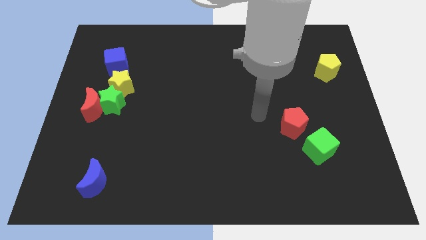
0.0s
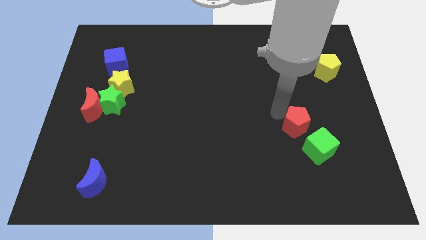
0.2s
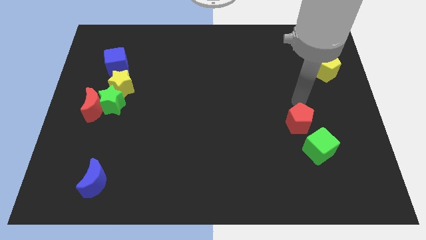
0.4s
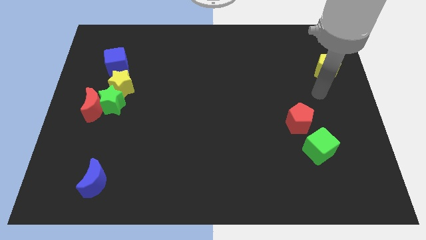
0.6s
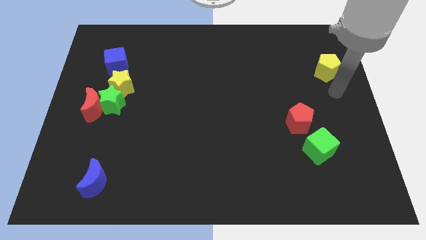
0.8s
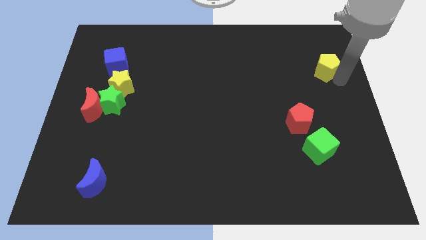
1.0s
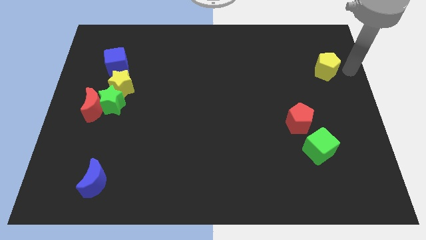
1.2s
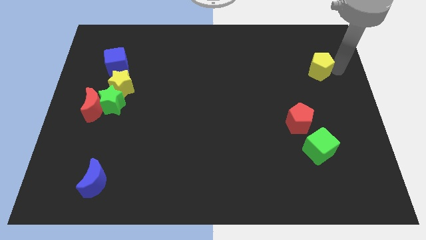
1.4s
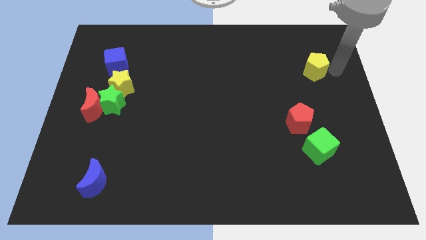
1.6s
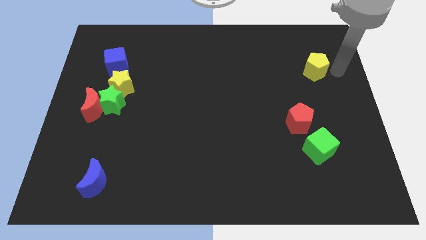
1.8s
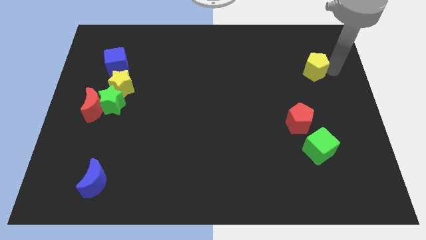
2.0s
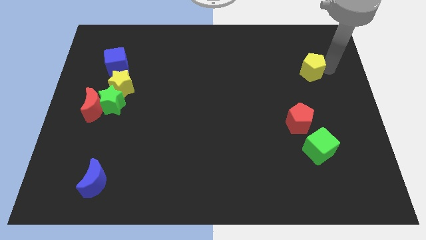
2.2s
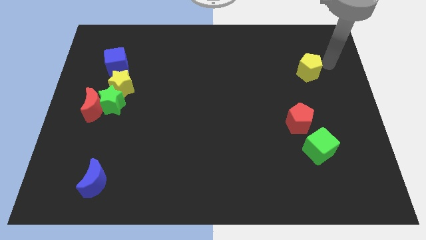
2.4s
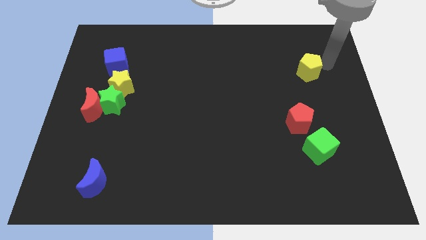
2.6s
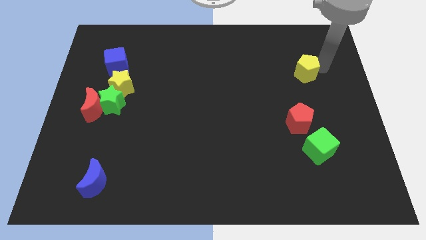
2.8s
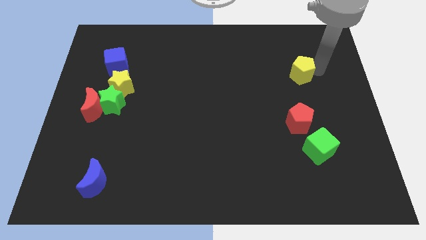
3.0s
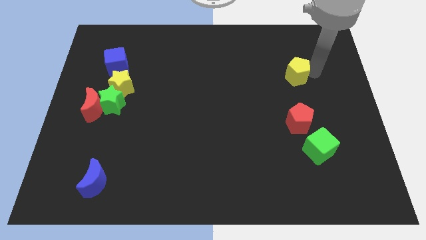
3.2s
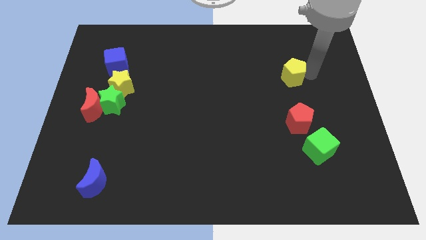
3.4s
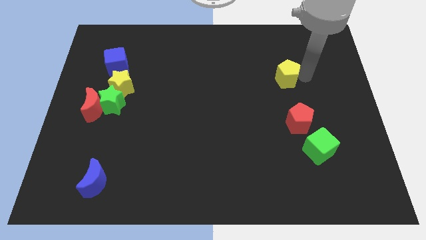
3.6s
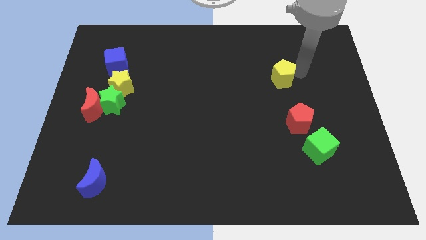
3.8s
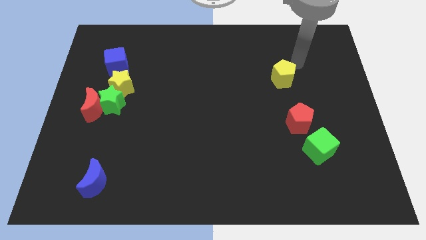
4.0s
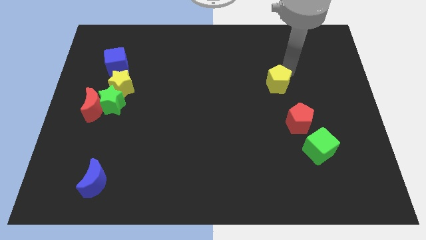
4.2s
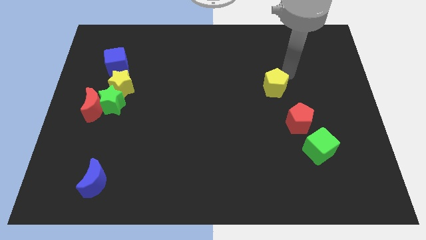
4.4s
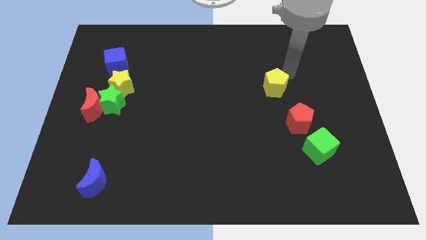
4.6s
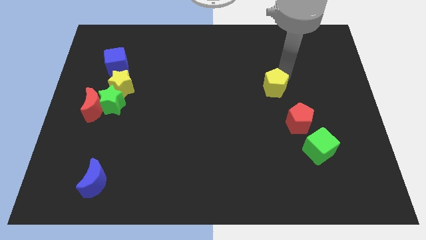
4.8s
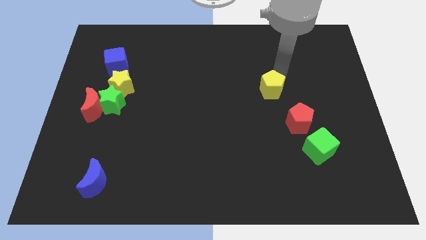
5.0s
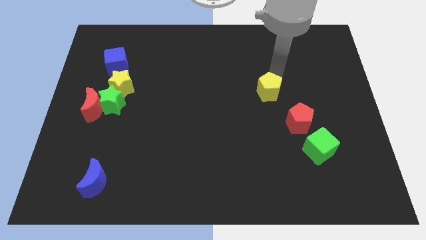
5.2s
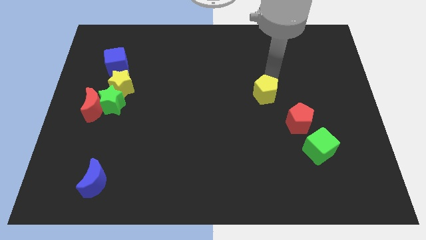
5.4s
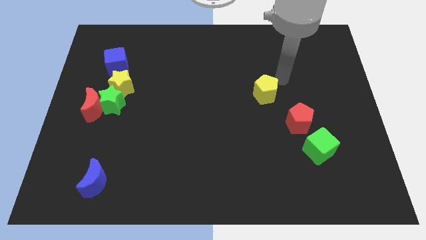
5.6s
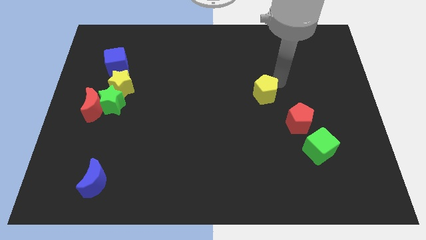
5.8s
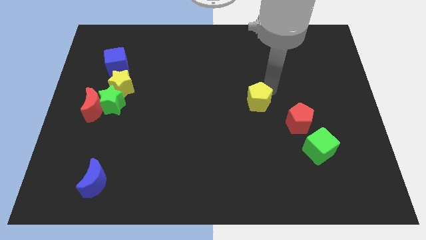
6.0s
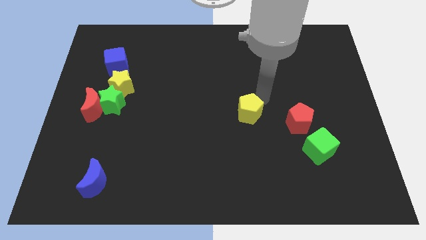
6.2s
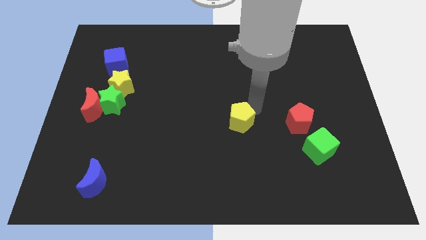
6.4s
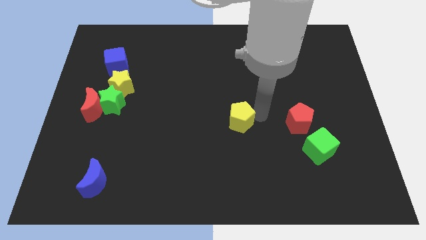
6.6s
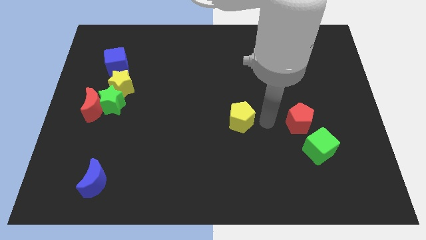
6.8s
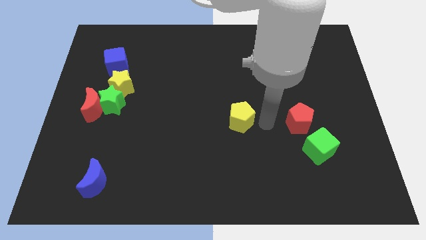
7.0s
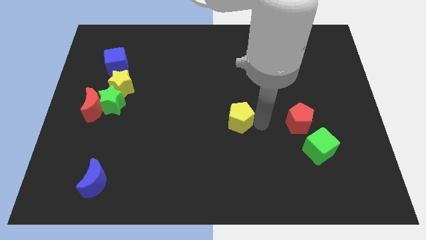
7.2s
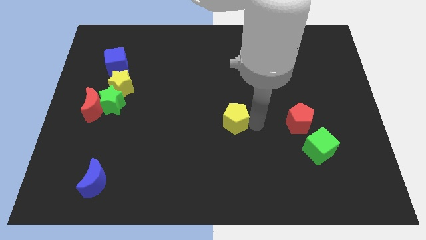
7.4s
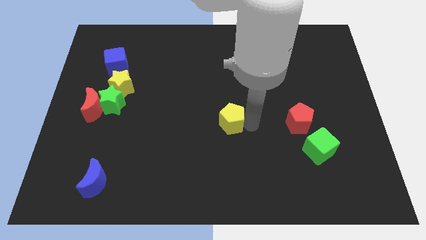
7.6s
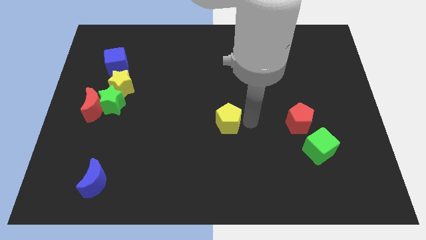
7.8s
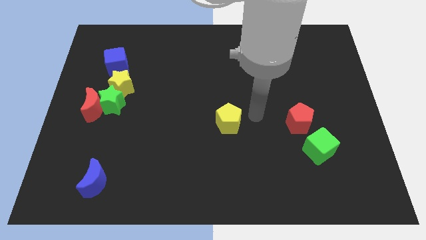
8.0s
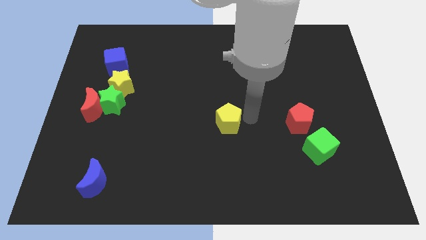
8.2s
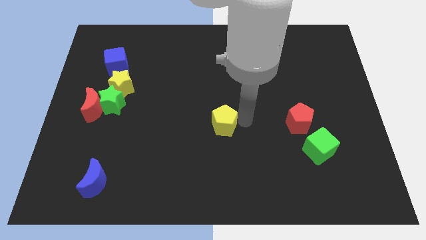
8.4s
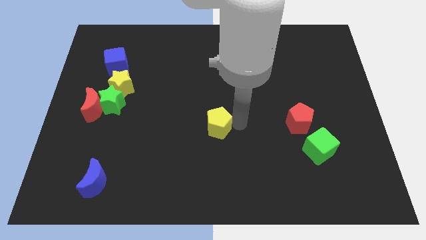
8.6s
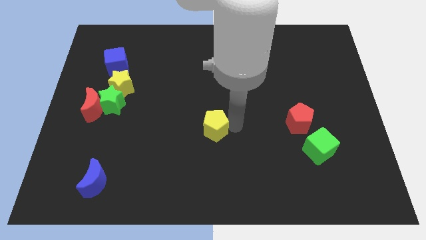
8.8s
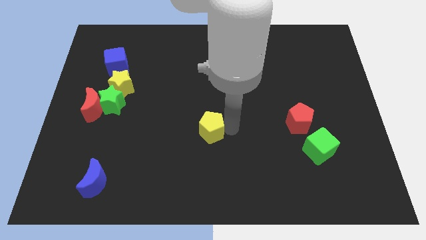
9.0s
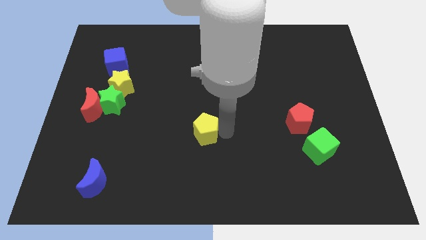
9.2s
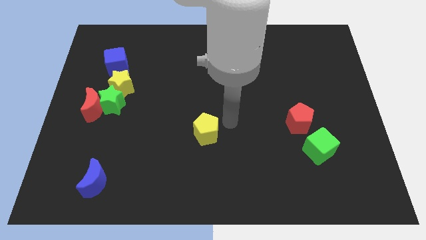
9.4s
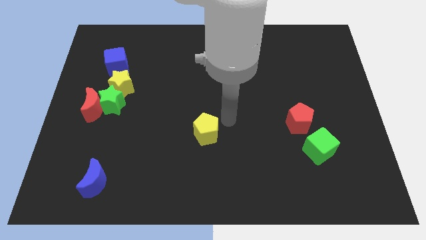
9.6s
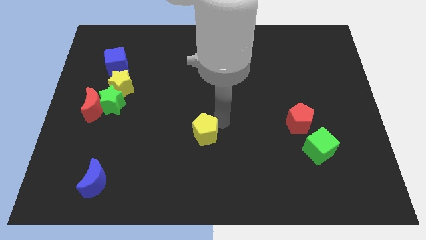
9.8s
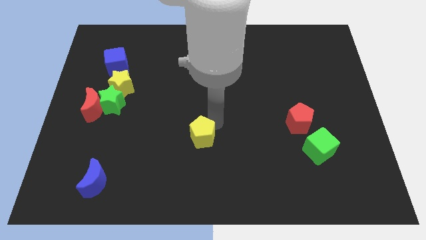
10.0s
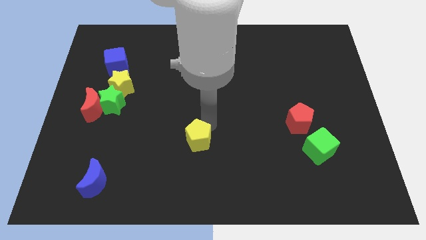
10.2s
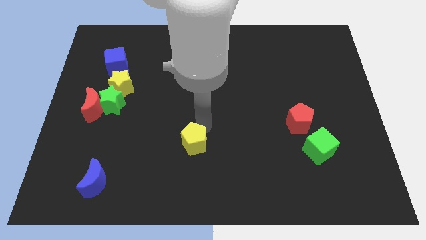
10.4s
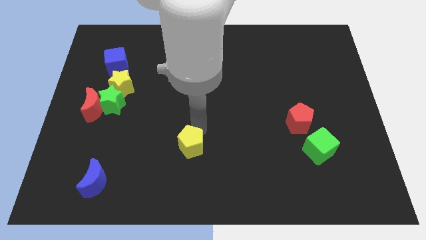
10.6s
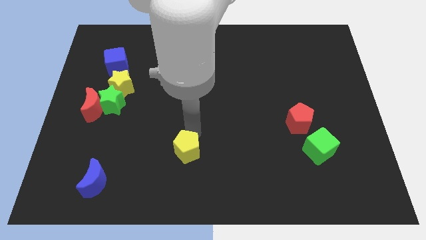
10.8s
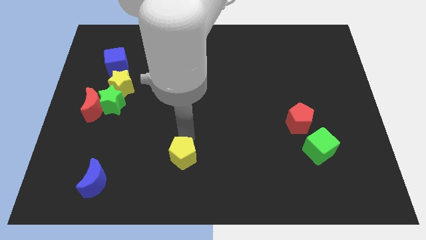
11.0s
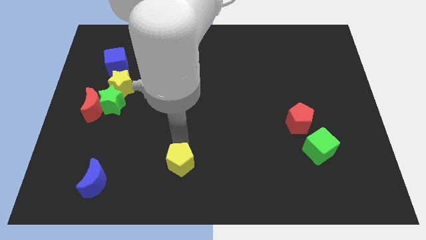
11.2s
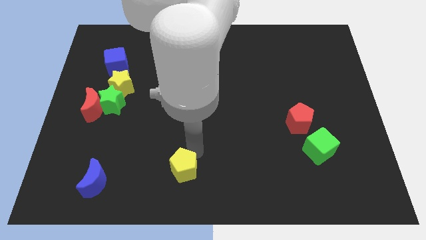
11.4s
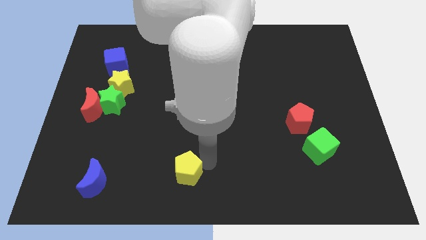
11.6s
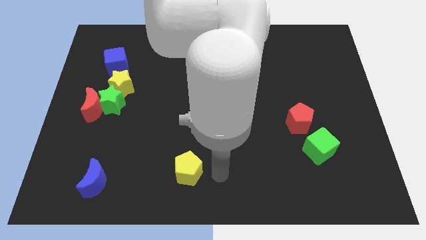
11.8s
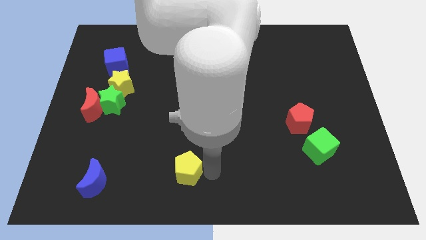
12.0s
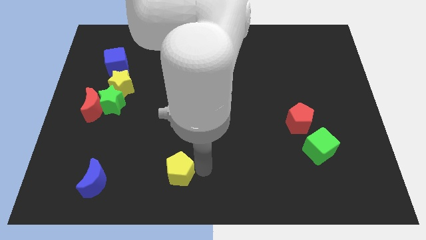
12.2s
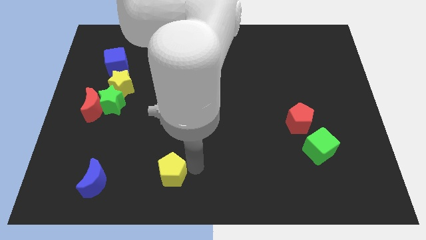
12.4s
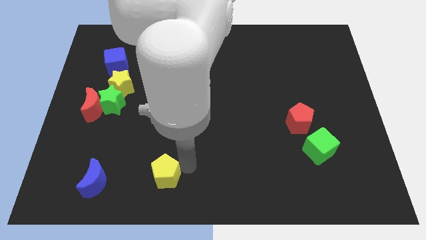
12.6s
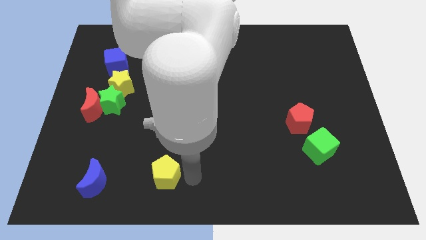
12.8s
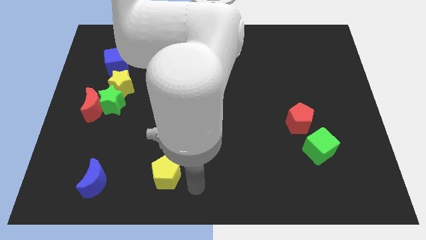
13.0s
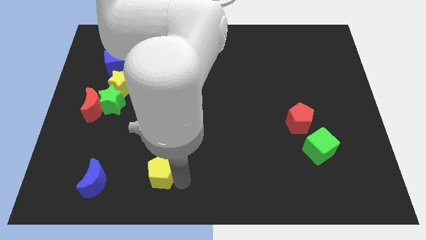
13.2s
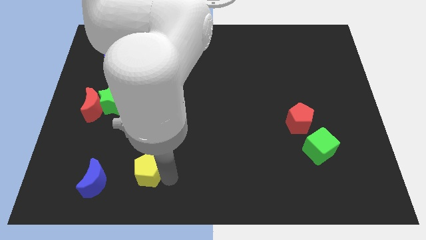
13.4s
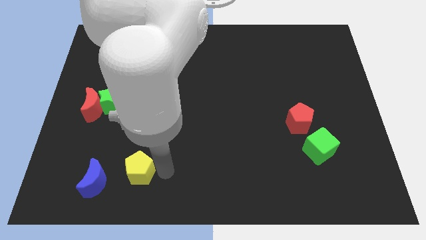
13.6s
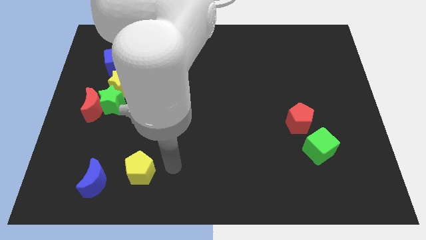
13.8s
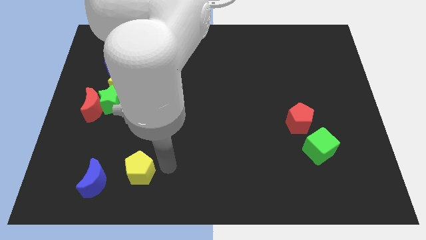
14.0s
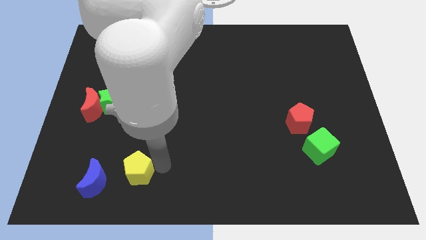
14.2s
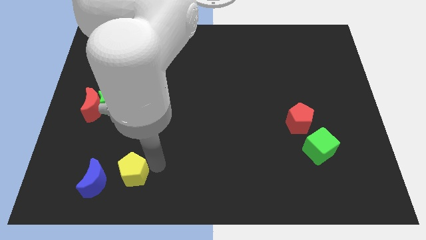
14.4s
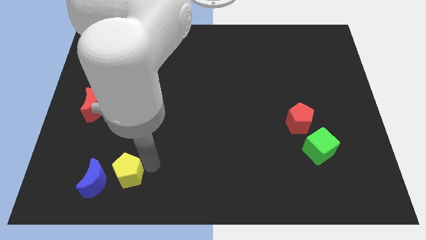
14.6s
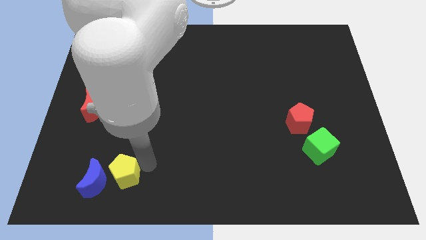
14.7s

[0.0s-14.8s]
slide the yellow pentagon next to the blue moon
